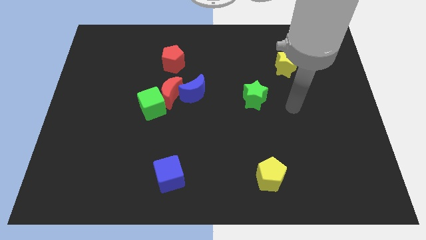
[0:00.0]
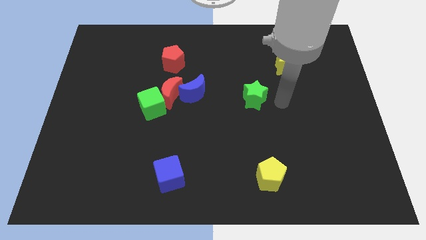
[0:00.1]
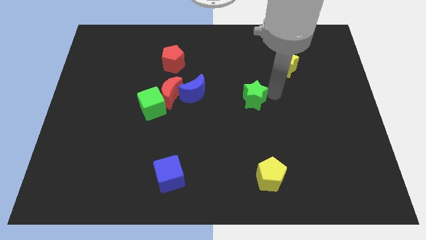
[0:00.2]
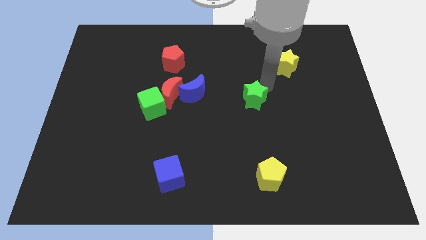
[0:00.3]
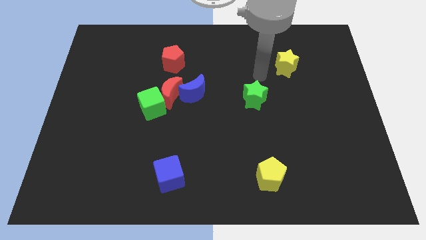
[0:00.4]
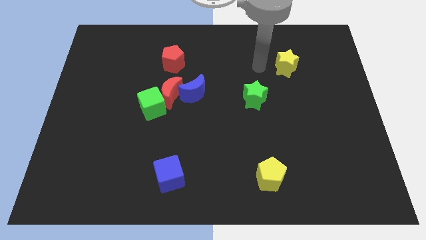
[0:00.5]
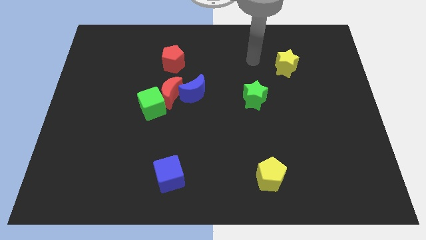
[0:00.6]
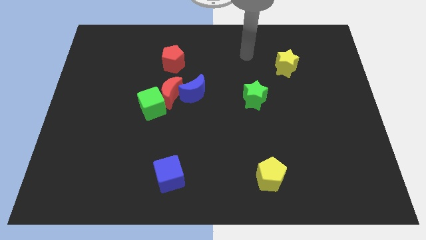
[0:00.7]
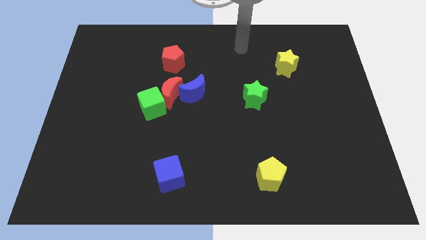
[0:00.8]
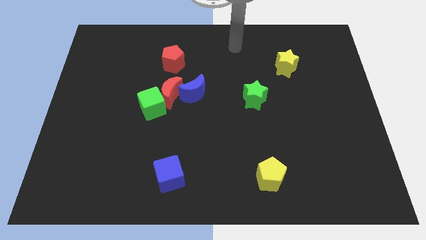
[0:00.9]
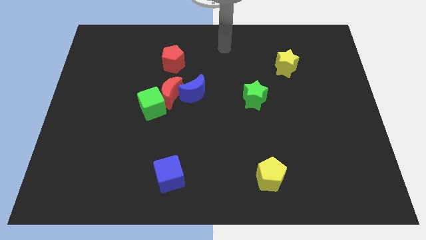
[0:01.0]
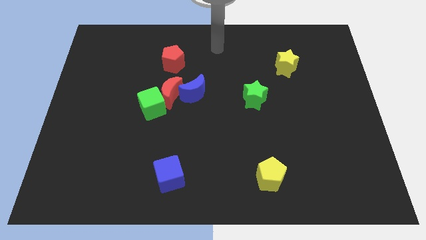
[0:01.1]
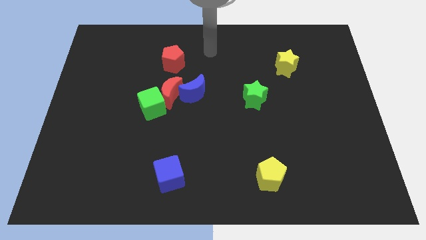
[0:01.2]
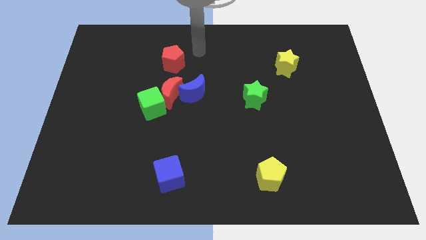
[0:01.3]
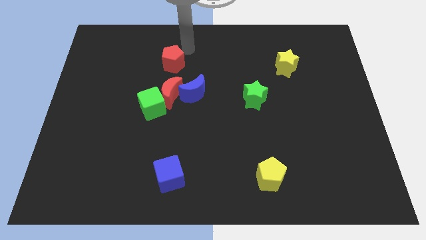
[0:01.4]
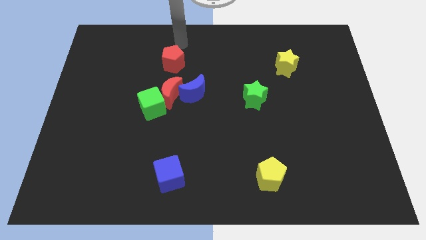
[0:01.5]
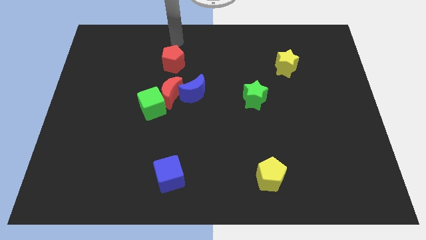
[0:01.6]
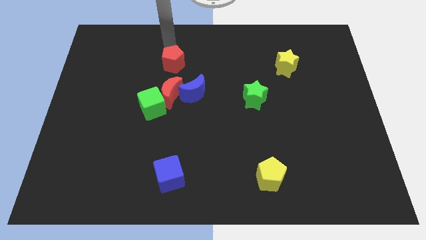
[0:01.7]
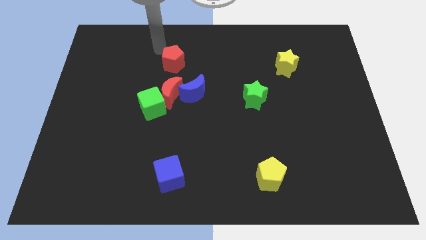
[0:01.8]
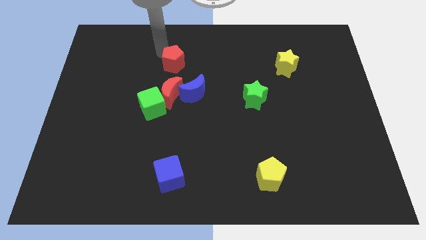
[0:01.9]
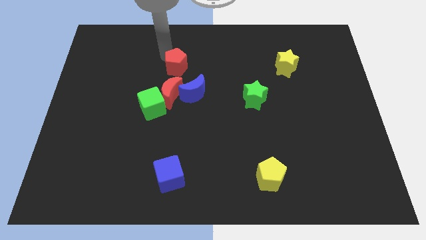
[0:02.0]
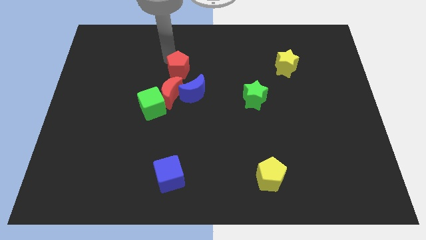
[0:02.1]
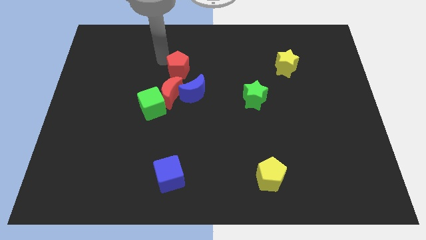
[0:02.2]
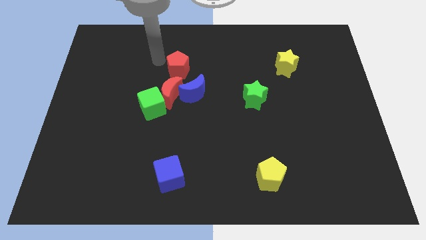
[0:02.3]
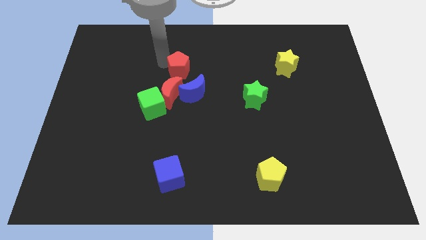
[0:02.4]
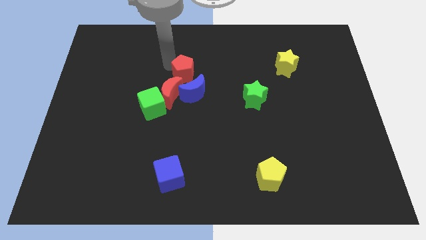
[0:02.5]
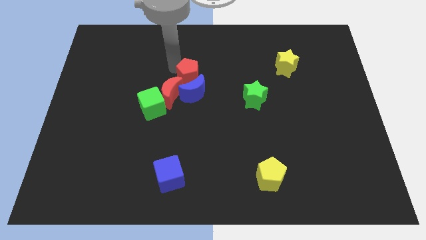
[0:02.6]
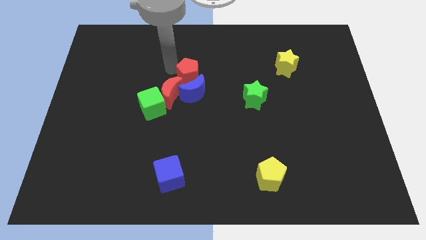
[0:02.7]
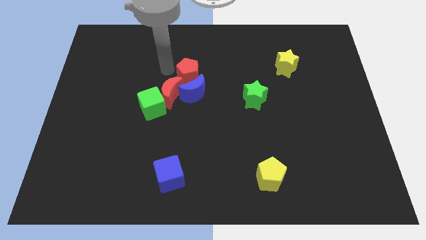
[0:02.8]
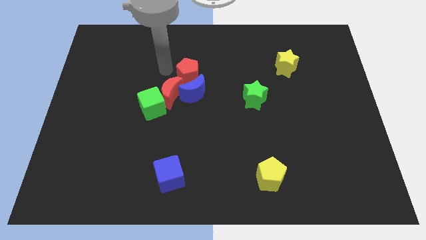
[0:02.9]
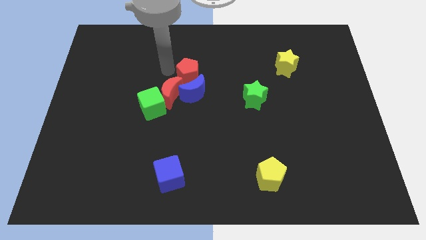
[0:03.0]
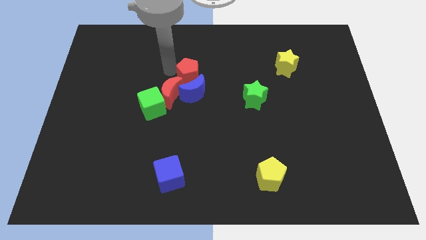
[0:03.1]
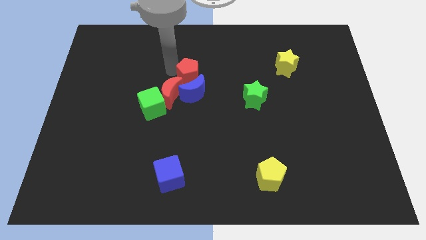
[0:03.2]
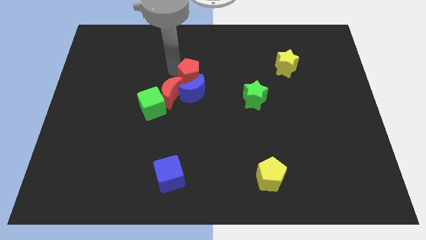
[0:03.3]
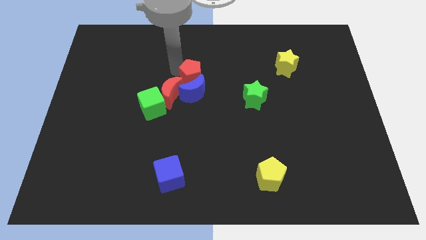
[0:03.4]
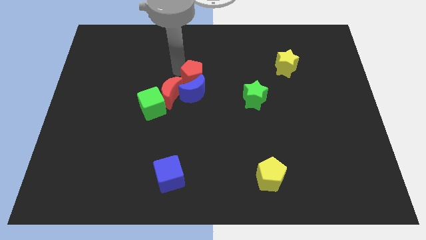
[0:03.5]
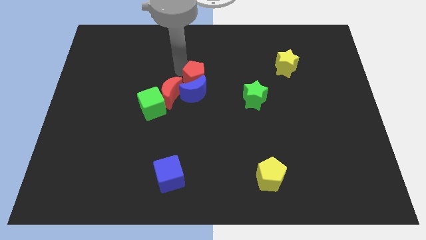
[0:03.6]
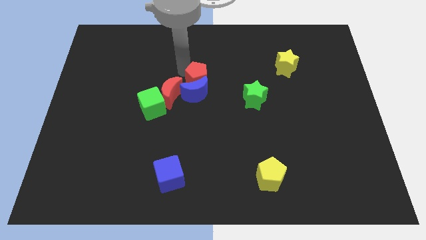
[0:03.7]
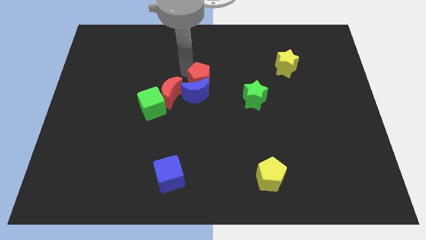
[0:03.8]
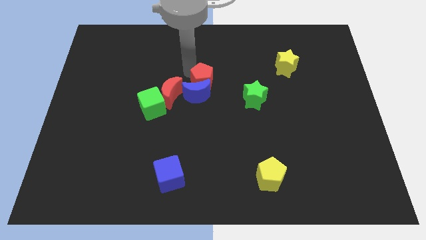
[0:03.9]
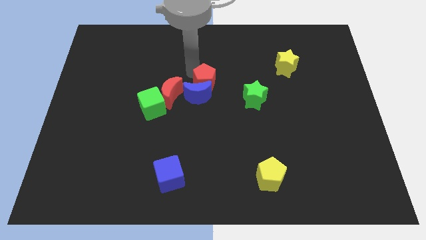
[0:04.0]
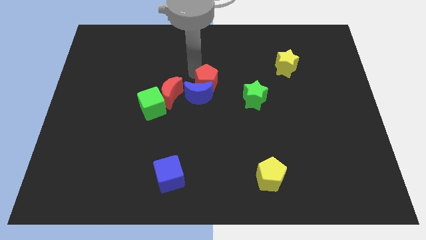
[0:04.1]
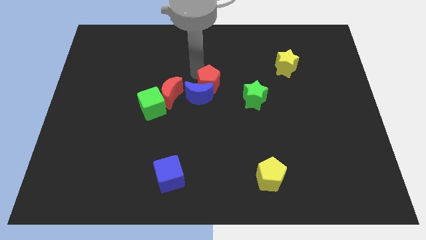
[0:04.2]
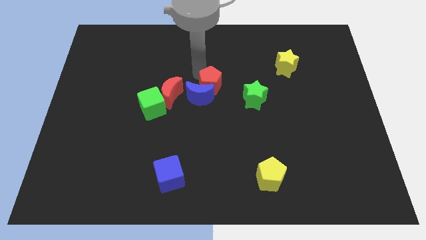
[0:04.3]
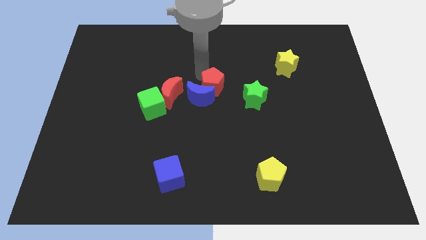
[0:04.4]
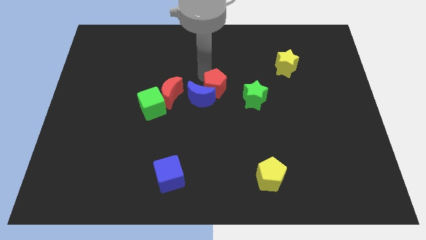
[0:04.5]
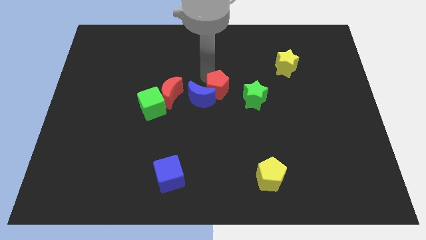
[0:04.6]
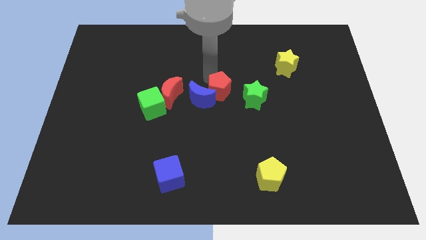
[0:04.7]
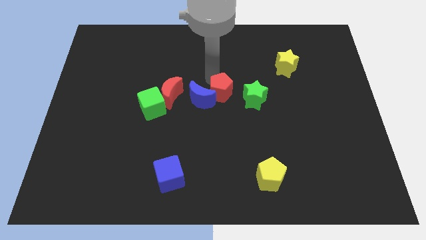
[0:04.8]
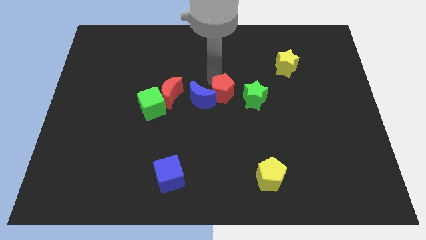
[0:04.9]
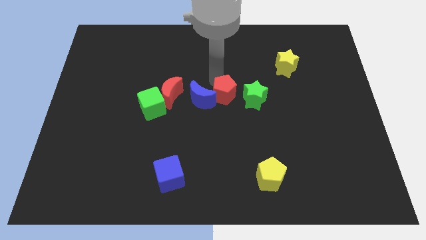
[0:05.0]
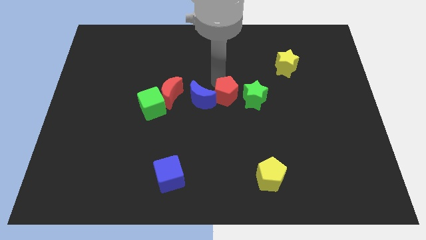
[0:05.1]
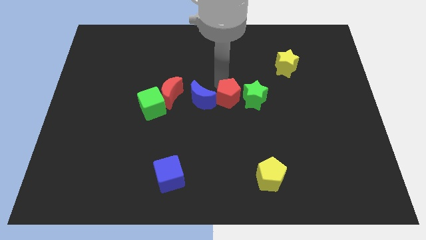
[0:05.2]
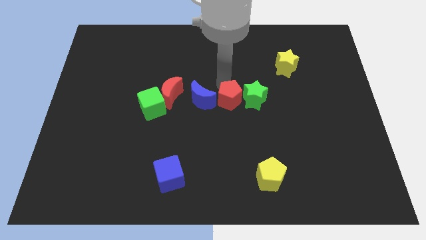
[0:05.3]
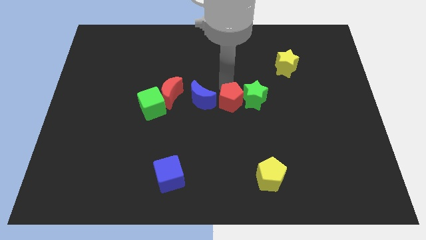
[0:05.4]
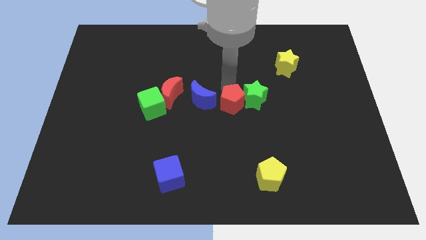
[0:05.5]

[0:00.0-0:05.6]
move the red pentagon down and right diagonally

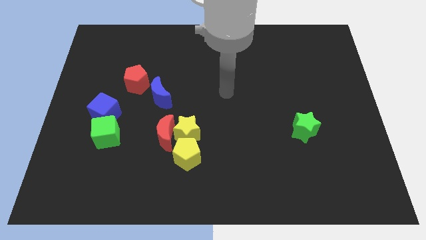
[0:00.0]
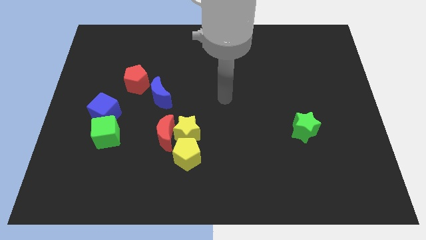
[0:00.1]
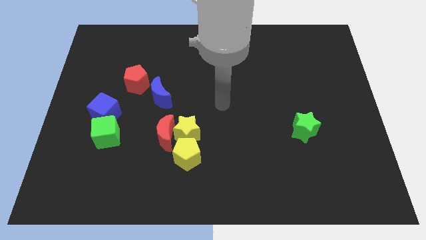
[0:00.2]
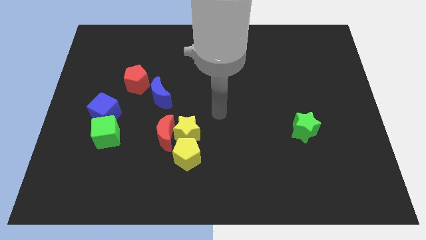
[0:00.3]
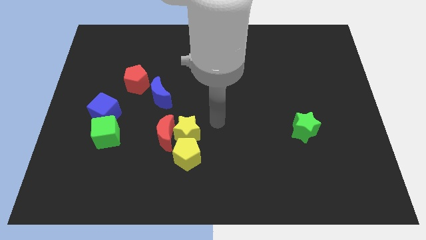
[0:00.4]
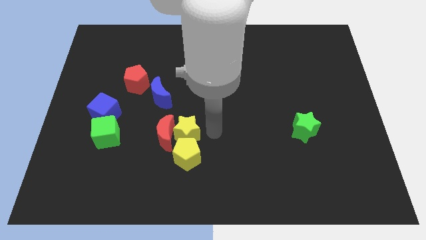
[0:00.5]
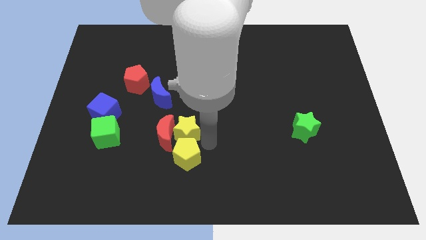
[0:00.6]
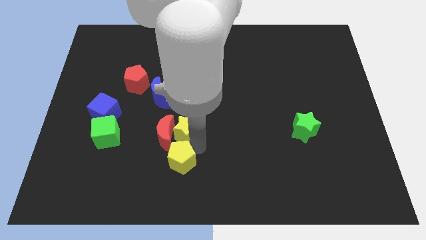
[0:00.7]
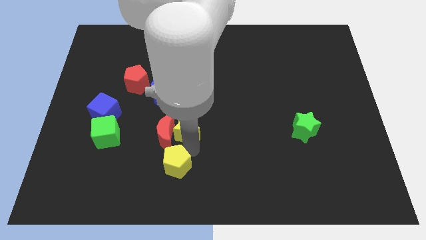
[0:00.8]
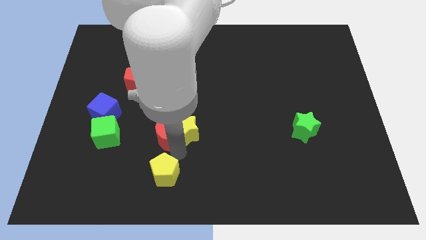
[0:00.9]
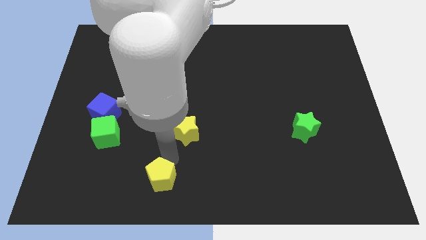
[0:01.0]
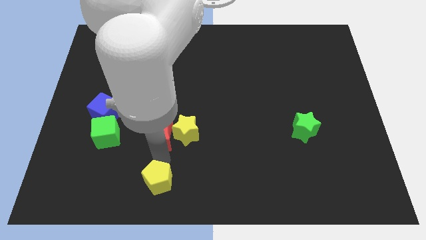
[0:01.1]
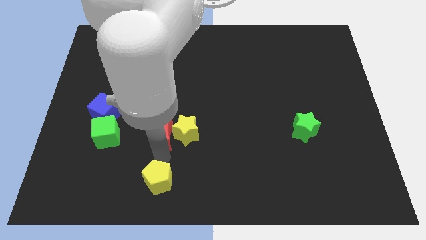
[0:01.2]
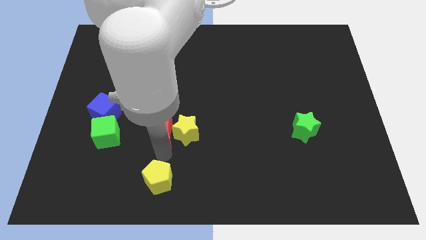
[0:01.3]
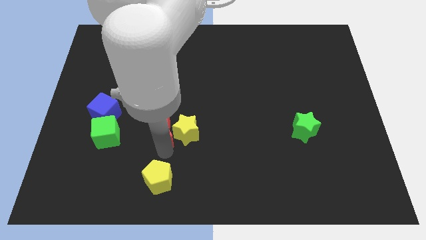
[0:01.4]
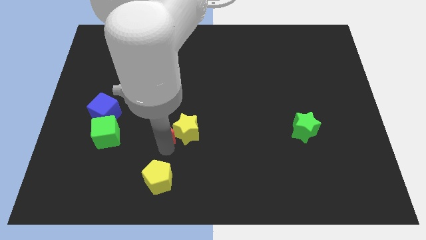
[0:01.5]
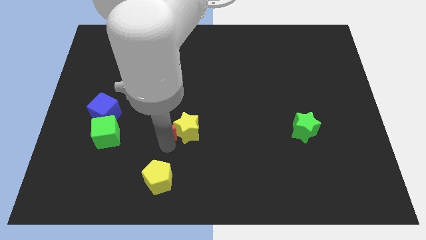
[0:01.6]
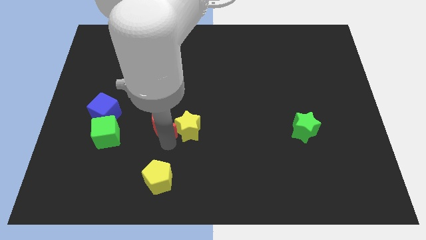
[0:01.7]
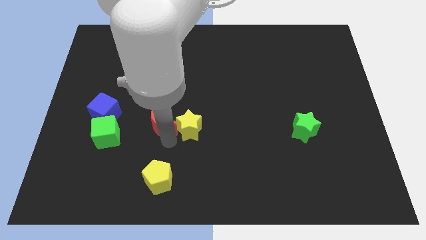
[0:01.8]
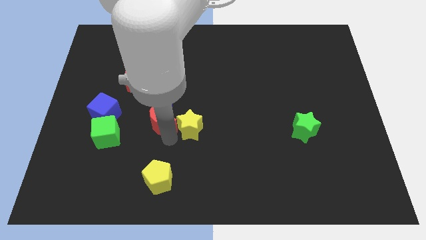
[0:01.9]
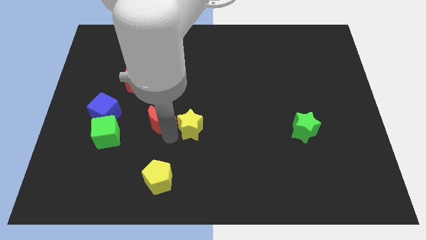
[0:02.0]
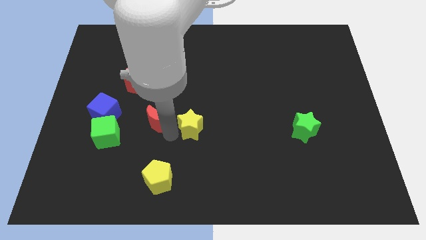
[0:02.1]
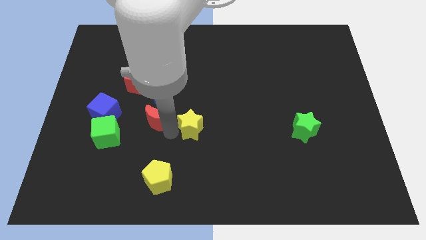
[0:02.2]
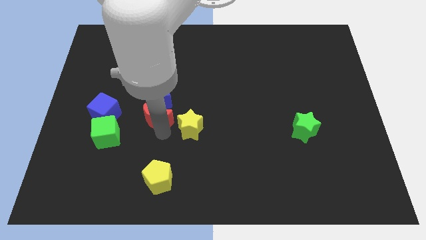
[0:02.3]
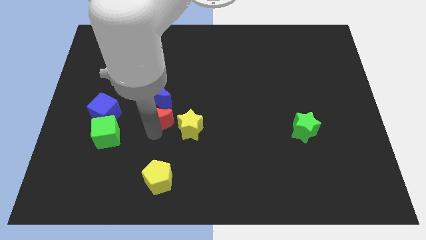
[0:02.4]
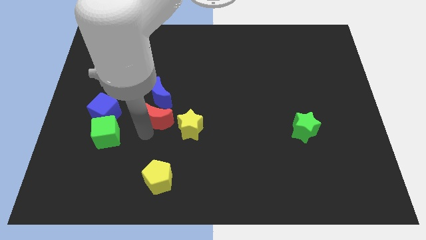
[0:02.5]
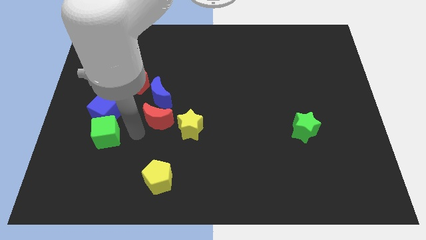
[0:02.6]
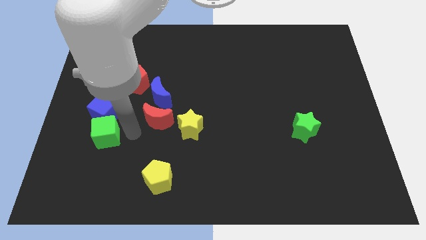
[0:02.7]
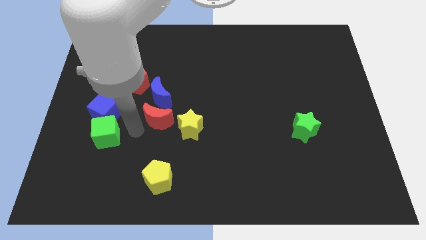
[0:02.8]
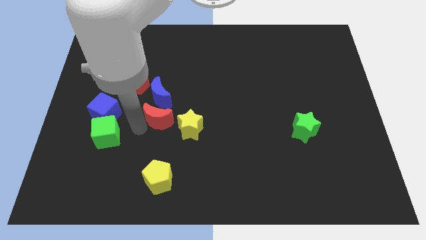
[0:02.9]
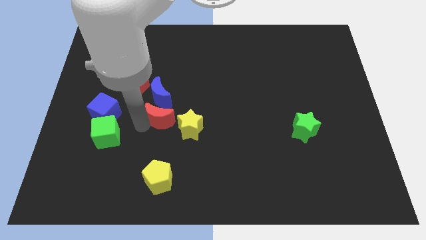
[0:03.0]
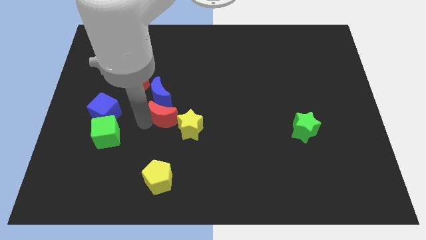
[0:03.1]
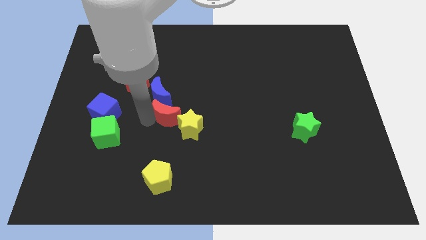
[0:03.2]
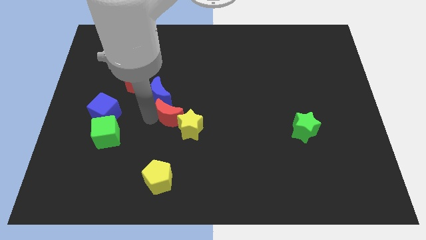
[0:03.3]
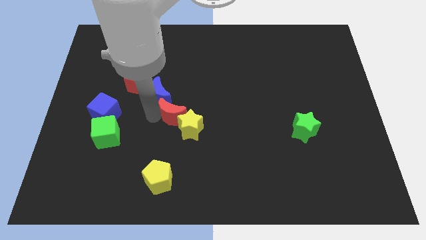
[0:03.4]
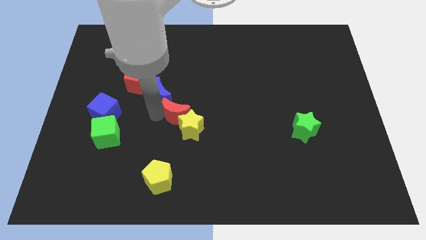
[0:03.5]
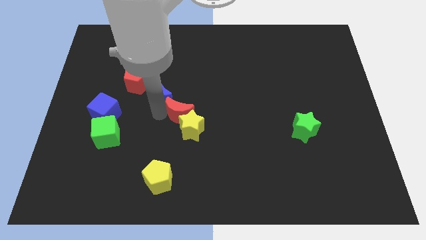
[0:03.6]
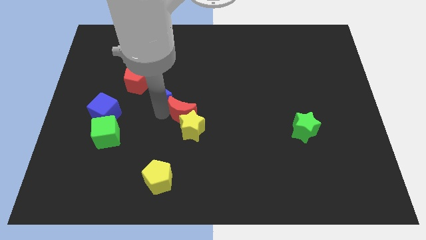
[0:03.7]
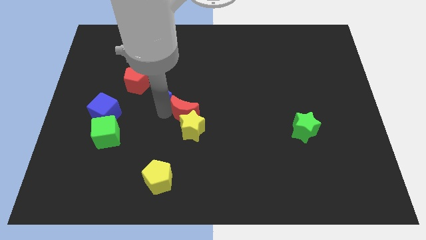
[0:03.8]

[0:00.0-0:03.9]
push the red moon up and to the right diagonally somewhat
